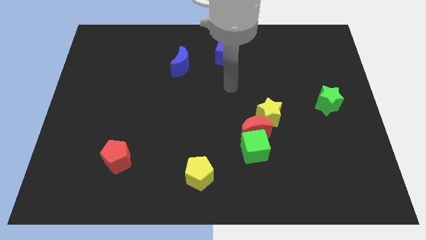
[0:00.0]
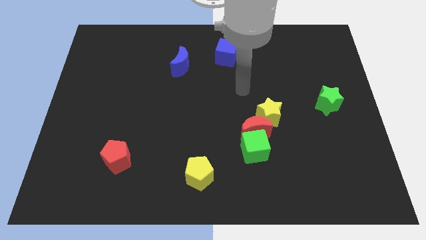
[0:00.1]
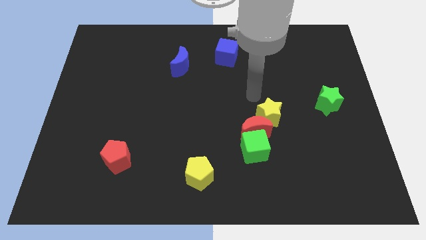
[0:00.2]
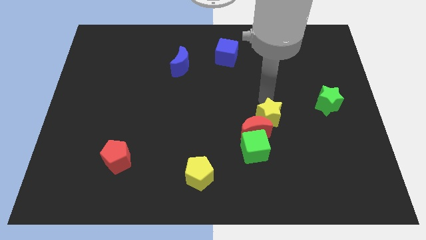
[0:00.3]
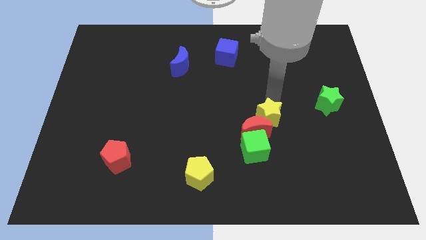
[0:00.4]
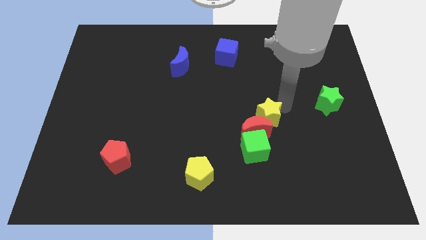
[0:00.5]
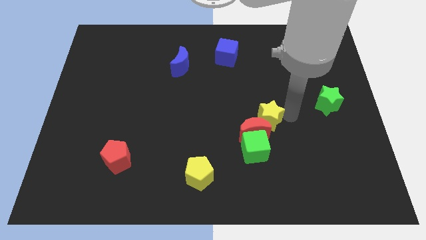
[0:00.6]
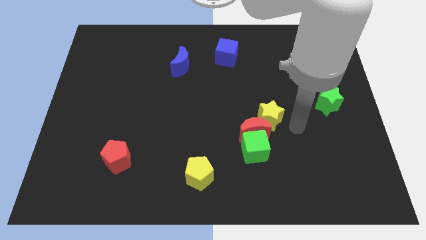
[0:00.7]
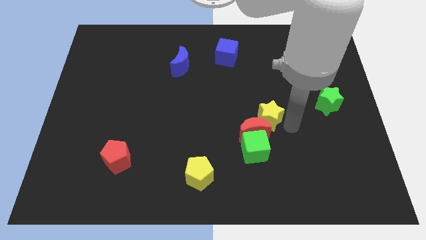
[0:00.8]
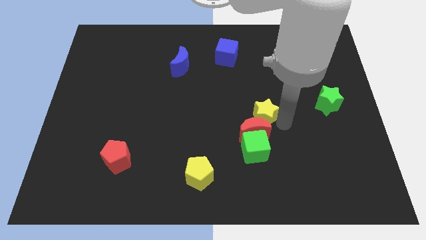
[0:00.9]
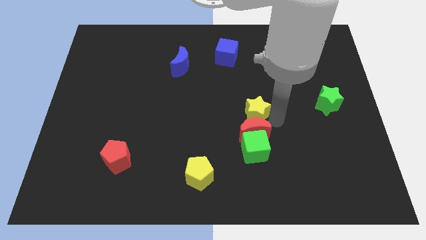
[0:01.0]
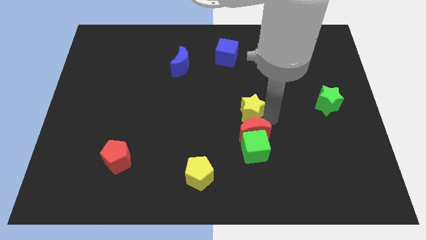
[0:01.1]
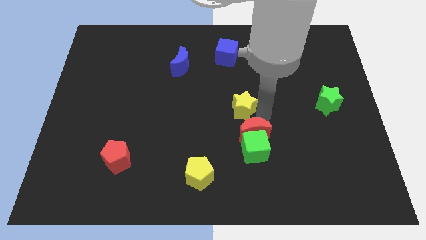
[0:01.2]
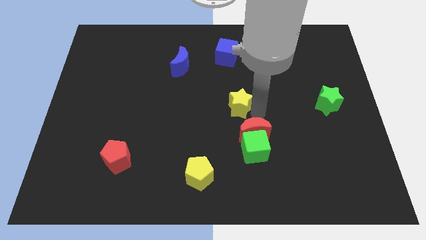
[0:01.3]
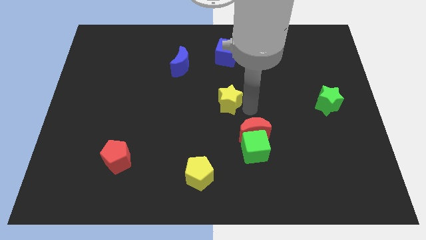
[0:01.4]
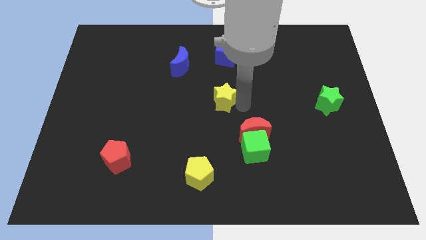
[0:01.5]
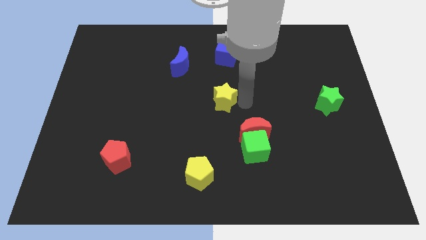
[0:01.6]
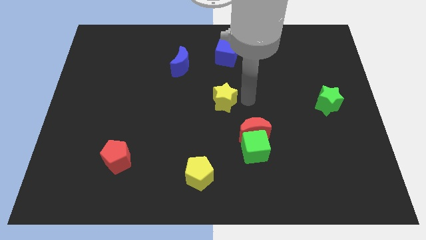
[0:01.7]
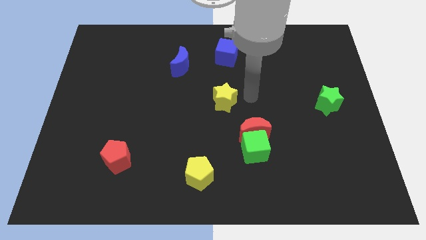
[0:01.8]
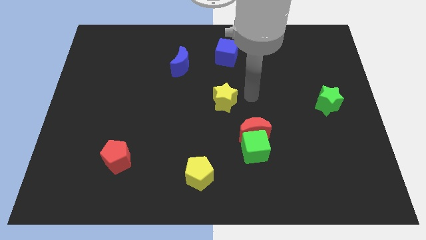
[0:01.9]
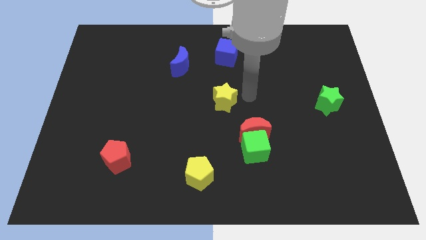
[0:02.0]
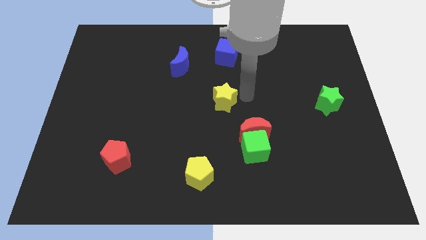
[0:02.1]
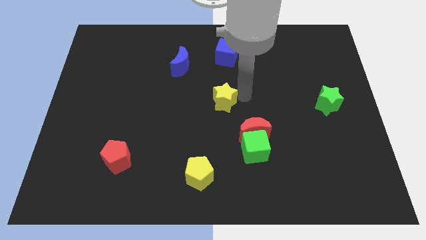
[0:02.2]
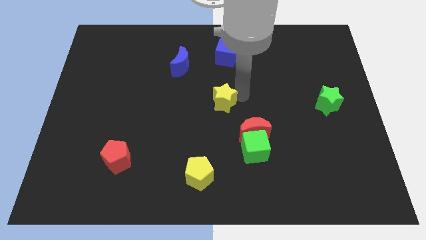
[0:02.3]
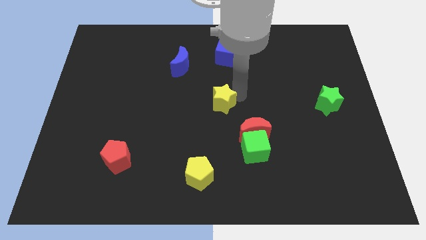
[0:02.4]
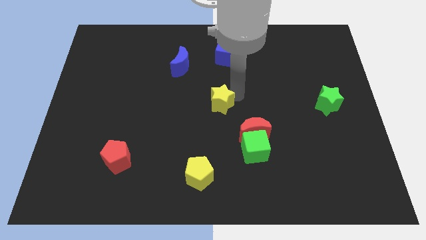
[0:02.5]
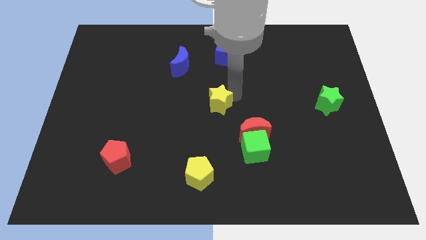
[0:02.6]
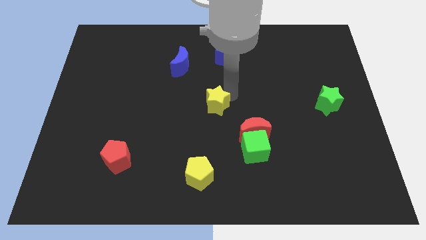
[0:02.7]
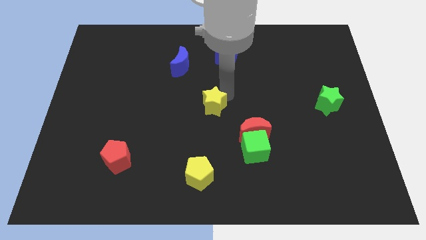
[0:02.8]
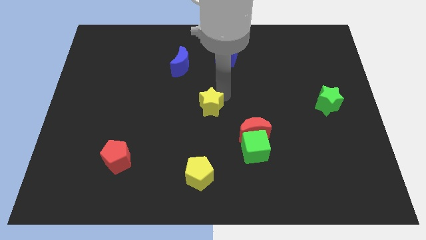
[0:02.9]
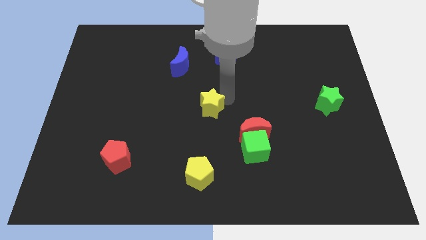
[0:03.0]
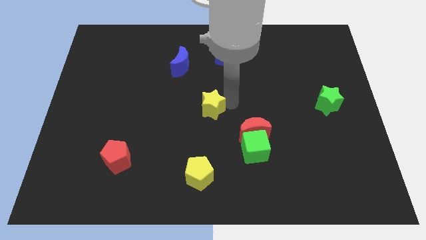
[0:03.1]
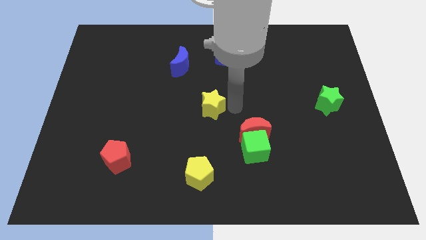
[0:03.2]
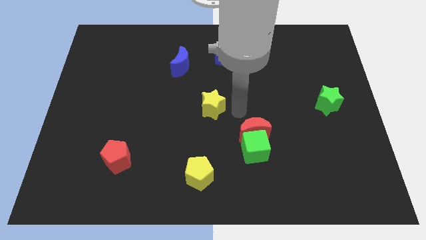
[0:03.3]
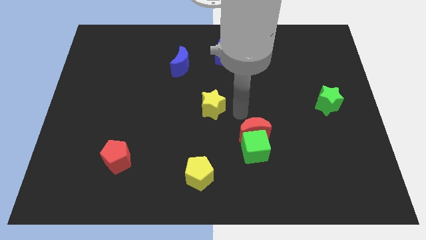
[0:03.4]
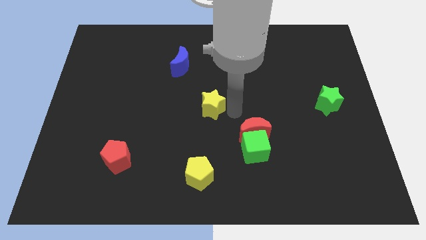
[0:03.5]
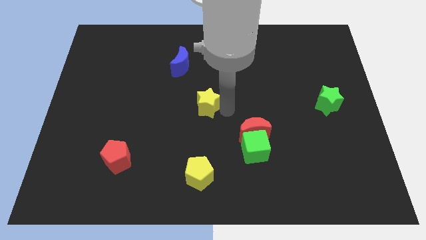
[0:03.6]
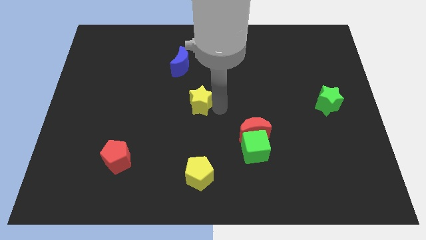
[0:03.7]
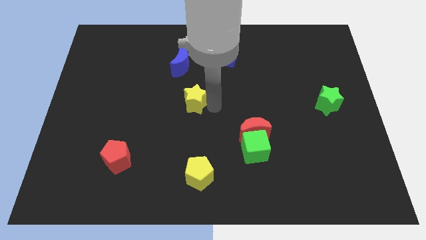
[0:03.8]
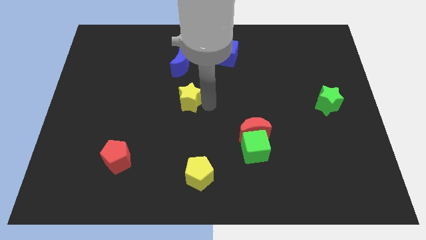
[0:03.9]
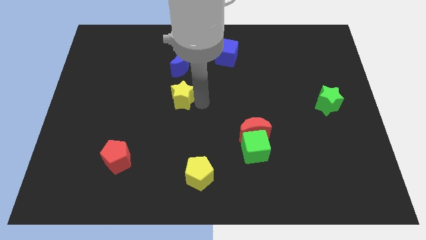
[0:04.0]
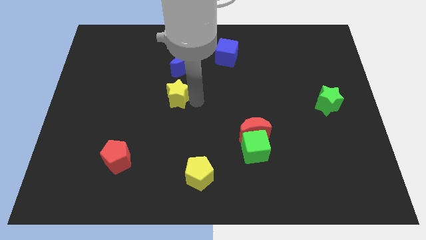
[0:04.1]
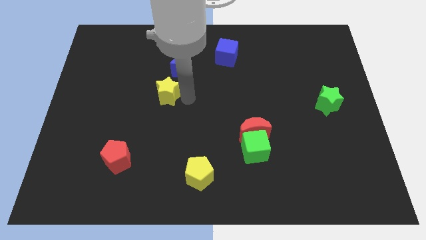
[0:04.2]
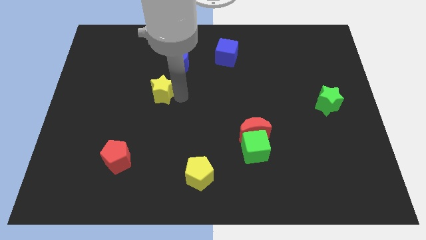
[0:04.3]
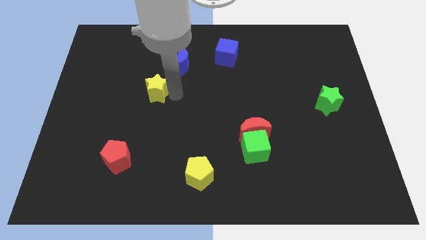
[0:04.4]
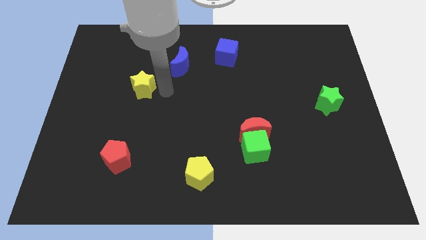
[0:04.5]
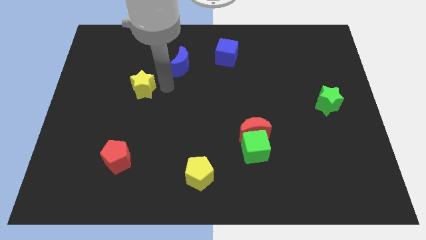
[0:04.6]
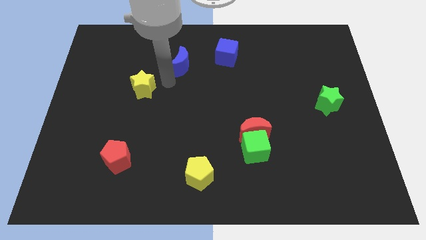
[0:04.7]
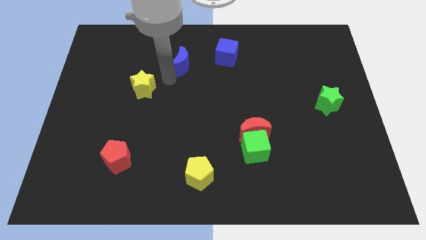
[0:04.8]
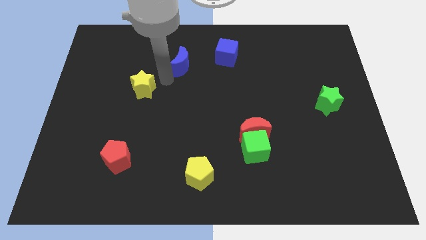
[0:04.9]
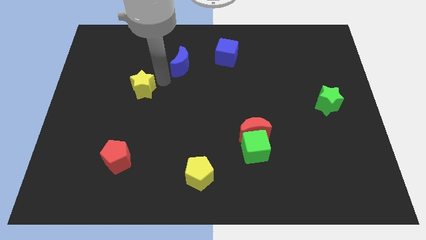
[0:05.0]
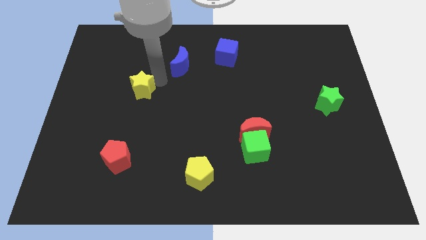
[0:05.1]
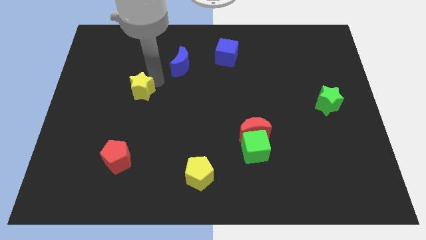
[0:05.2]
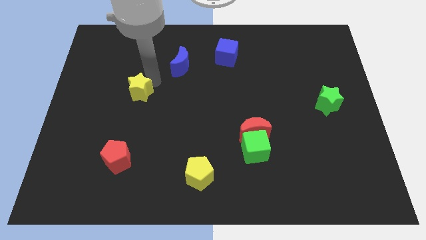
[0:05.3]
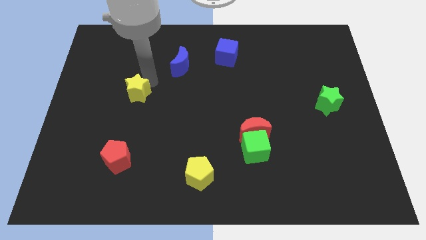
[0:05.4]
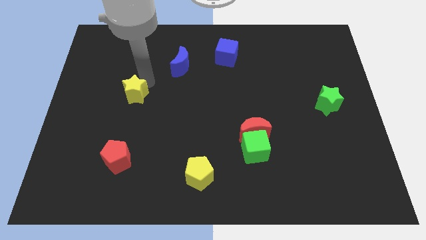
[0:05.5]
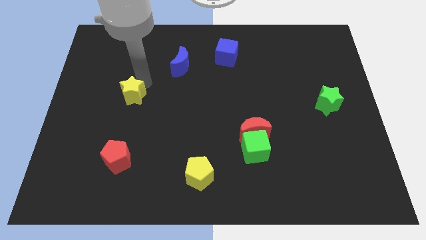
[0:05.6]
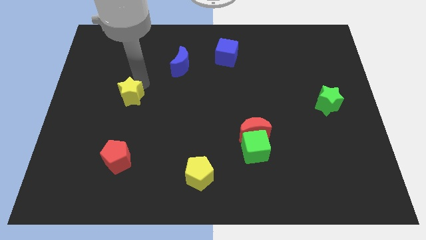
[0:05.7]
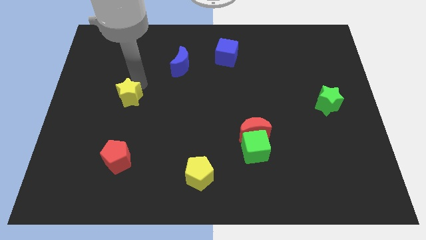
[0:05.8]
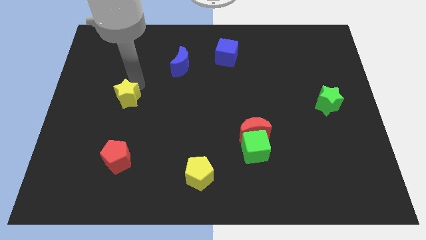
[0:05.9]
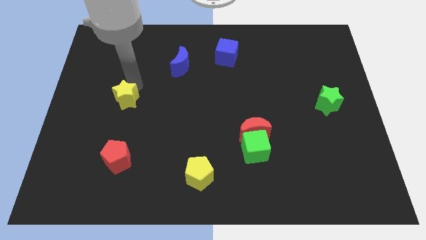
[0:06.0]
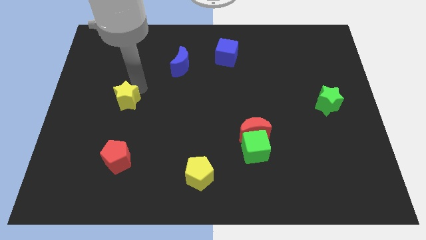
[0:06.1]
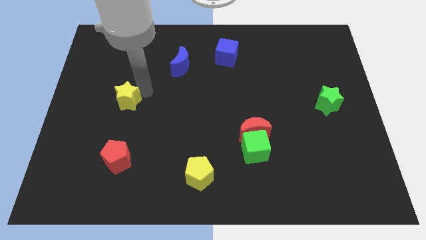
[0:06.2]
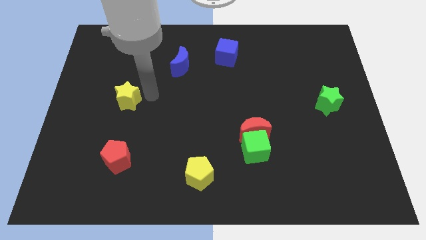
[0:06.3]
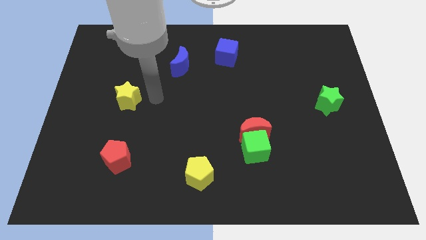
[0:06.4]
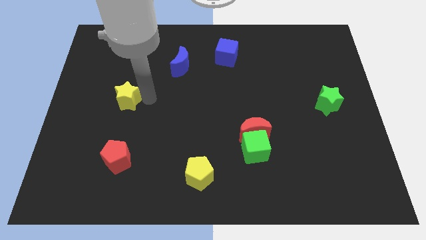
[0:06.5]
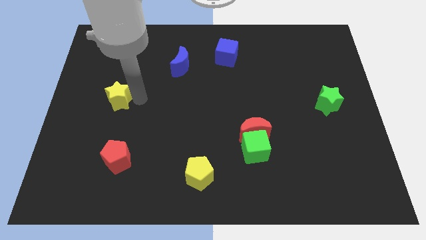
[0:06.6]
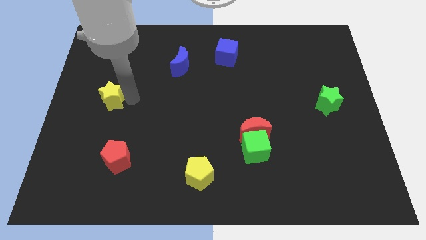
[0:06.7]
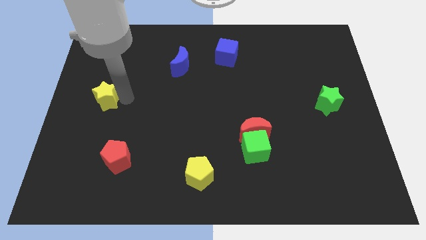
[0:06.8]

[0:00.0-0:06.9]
put the yellow star to the left side of the board

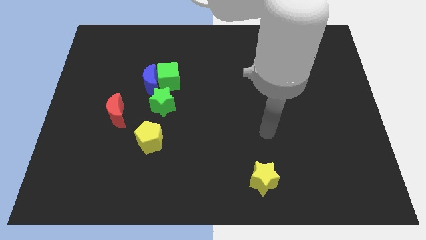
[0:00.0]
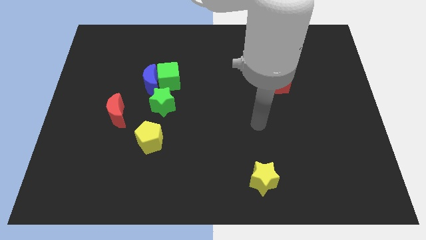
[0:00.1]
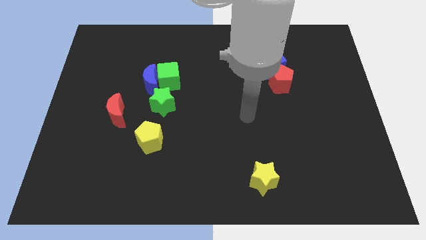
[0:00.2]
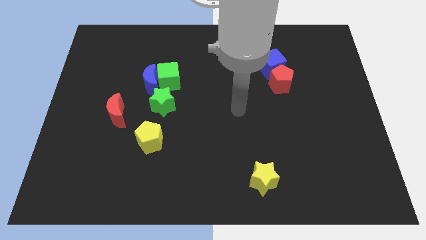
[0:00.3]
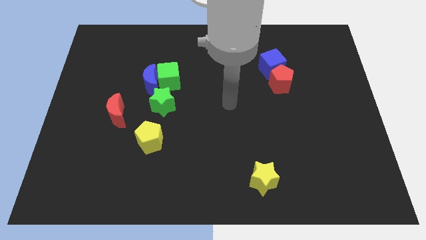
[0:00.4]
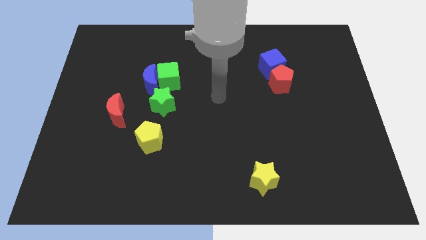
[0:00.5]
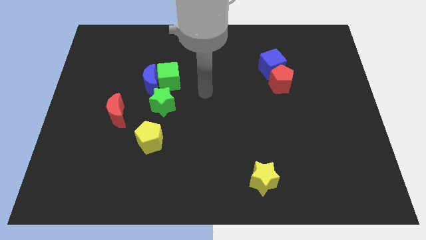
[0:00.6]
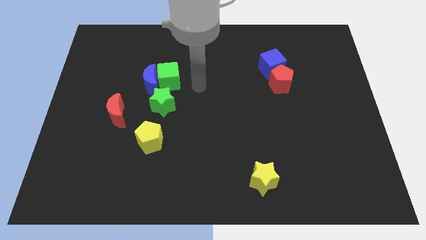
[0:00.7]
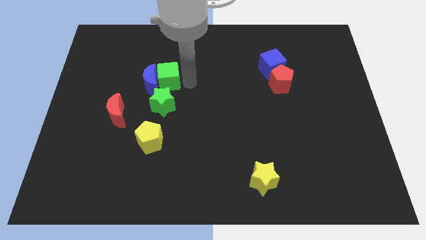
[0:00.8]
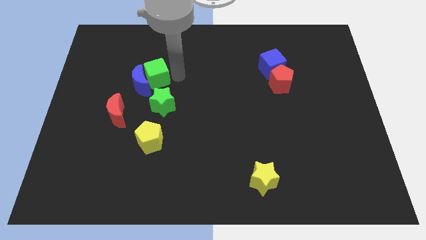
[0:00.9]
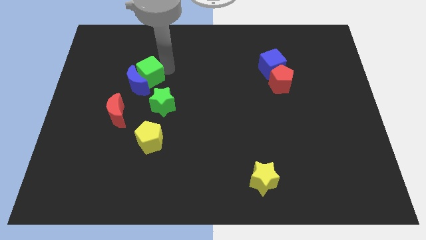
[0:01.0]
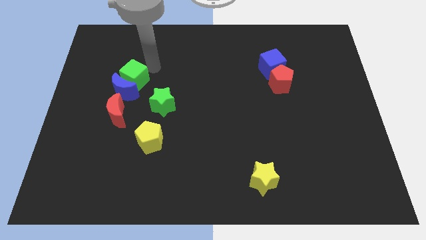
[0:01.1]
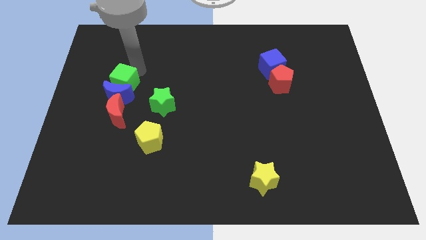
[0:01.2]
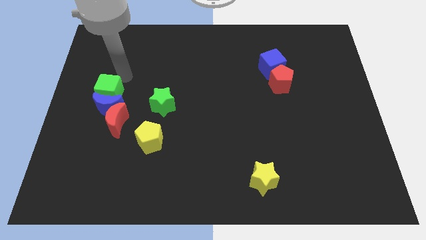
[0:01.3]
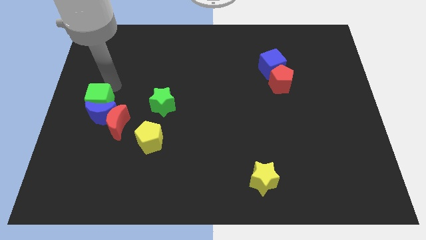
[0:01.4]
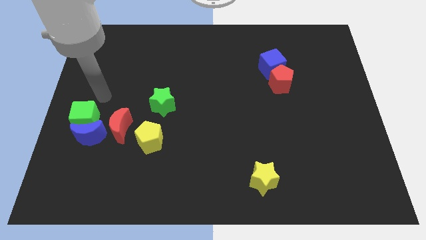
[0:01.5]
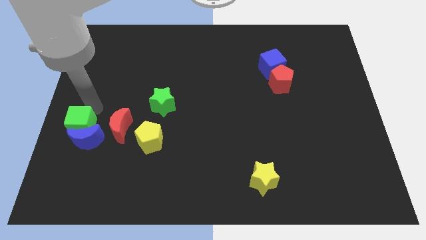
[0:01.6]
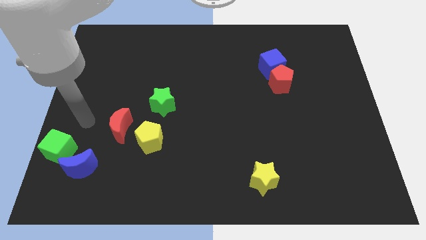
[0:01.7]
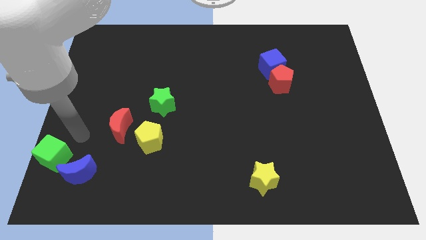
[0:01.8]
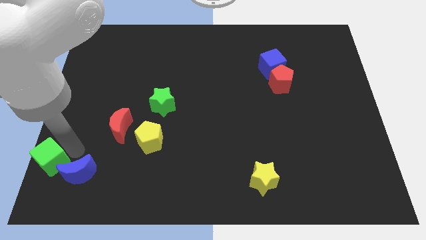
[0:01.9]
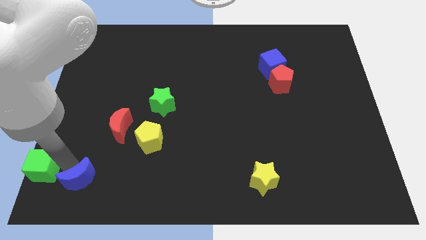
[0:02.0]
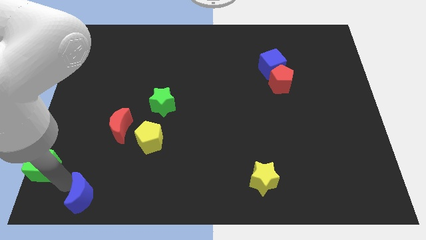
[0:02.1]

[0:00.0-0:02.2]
push the blue moon to the bottom left
